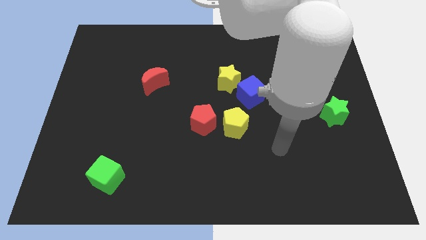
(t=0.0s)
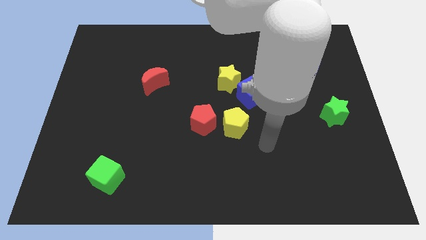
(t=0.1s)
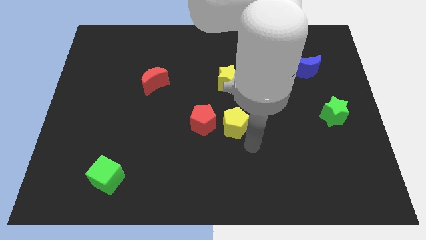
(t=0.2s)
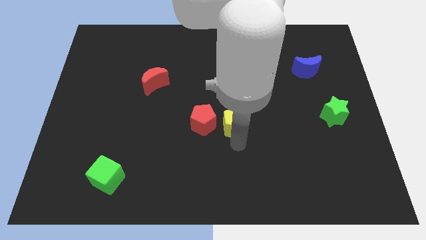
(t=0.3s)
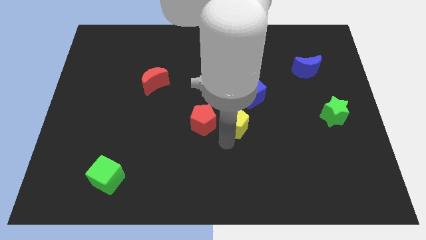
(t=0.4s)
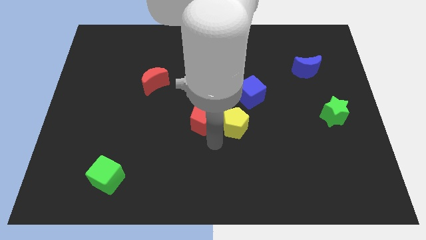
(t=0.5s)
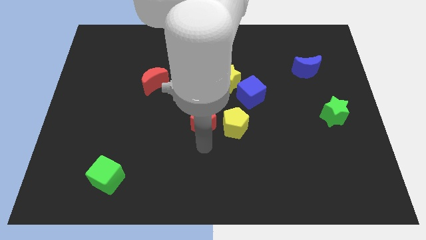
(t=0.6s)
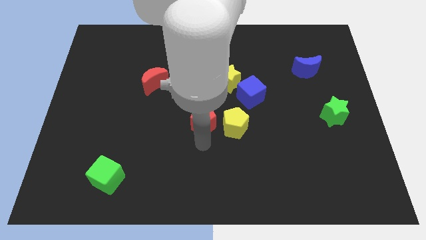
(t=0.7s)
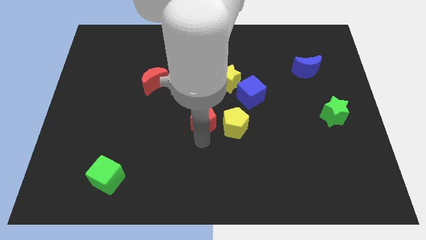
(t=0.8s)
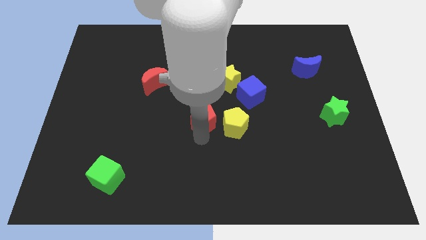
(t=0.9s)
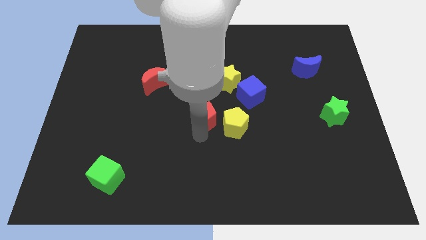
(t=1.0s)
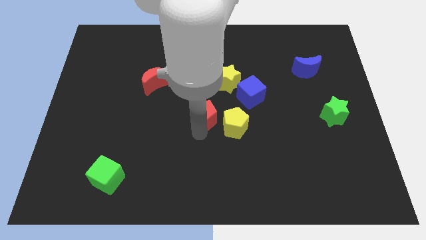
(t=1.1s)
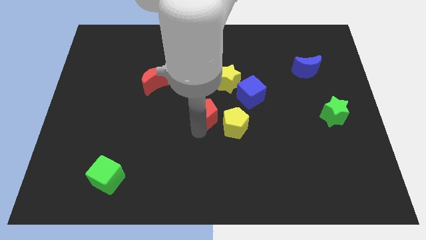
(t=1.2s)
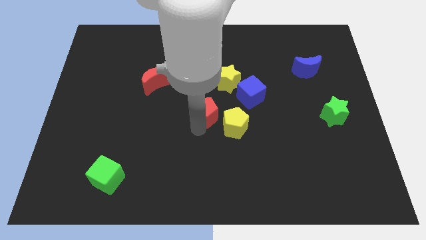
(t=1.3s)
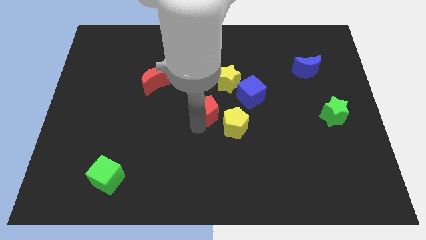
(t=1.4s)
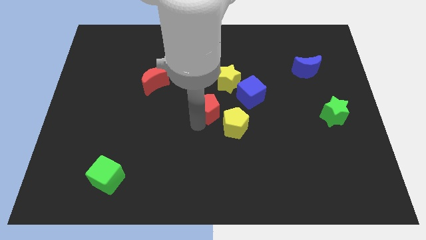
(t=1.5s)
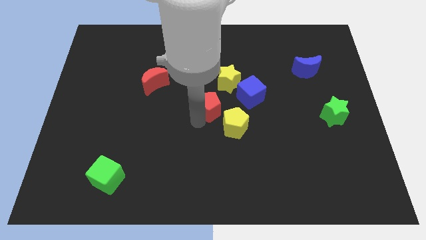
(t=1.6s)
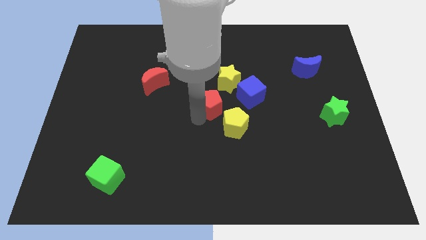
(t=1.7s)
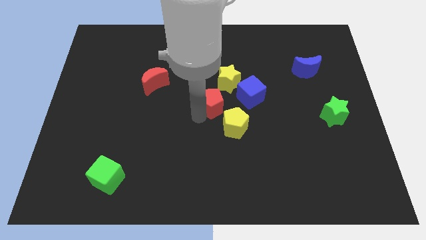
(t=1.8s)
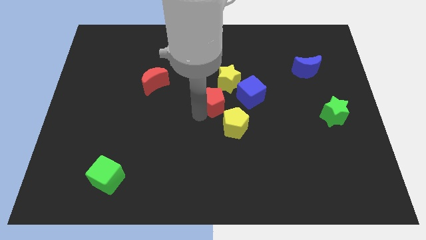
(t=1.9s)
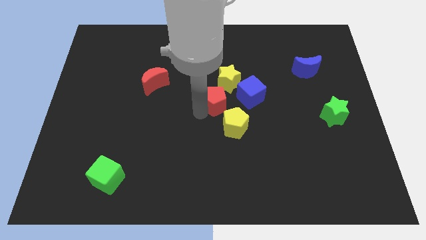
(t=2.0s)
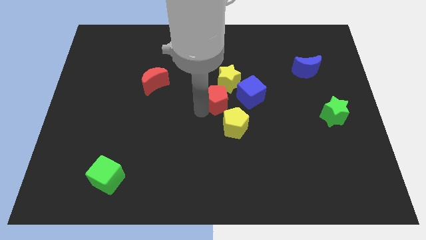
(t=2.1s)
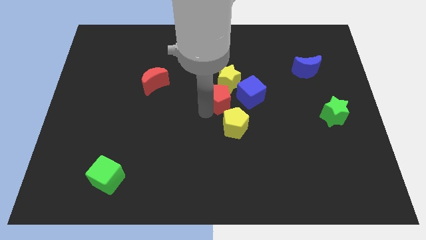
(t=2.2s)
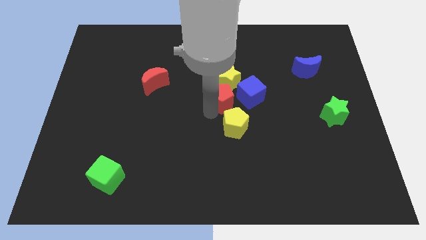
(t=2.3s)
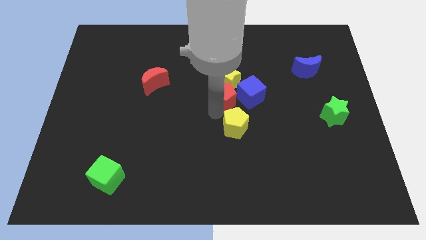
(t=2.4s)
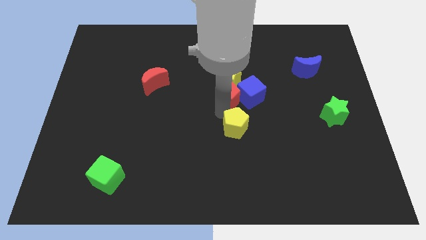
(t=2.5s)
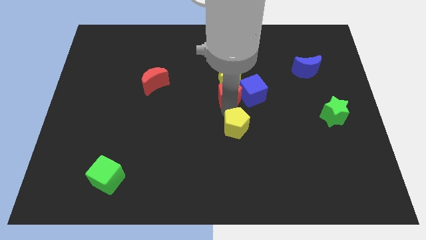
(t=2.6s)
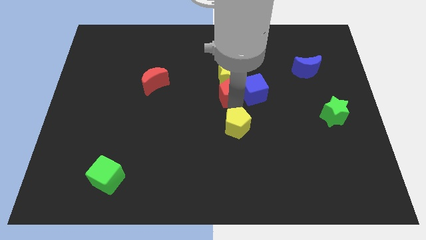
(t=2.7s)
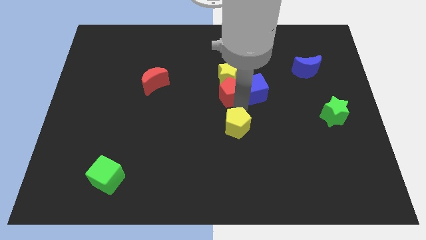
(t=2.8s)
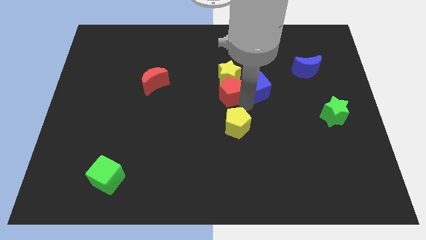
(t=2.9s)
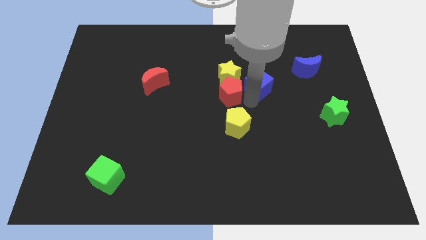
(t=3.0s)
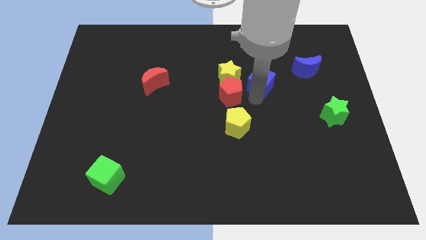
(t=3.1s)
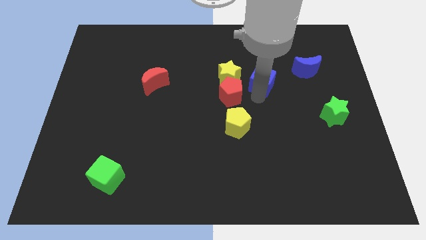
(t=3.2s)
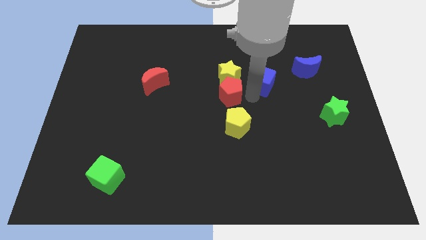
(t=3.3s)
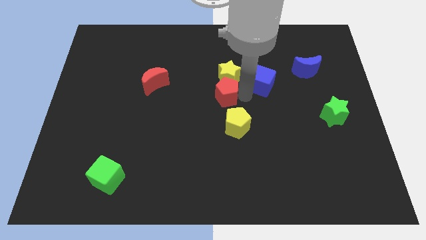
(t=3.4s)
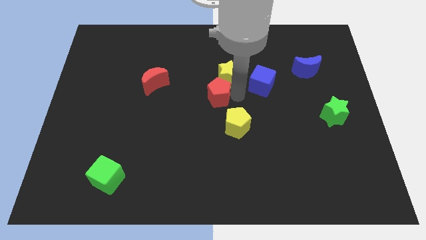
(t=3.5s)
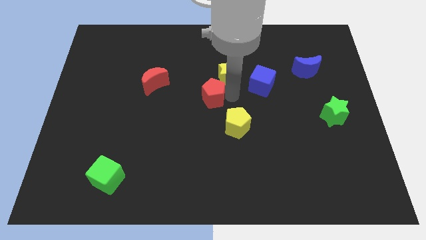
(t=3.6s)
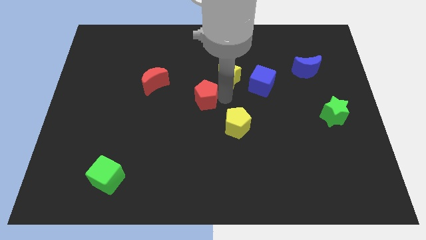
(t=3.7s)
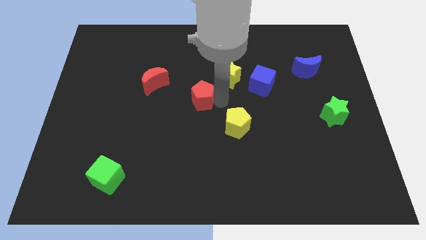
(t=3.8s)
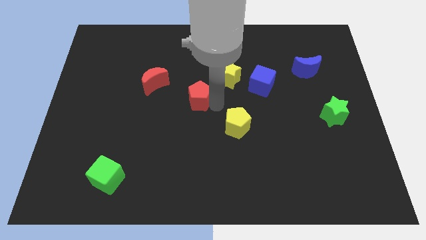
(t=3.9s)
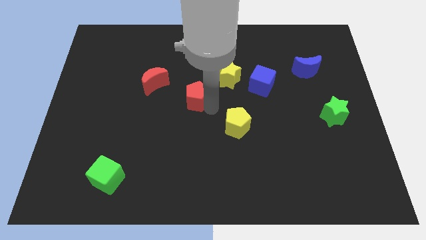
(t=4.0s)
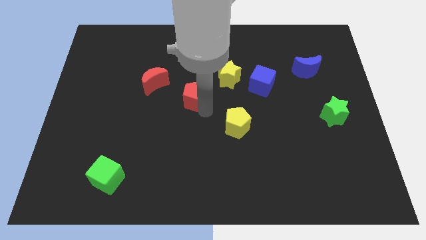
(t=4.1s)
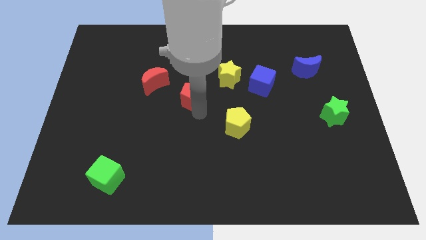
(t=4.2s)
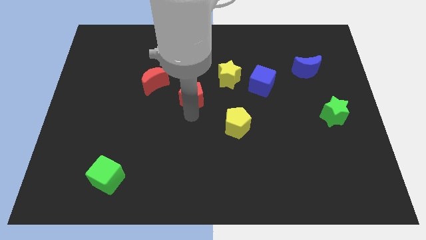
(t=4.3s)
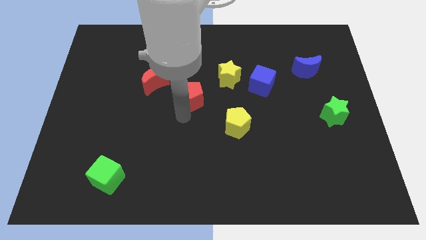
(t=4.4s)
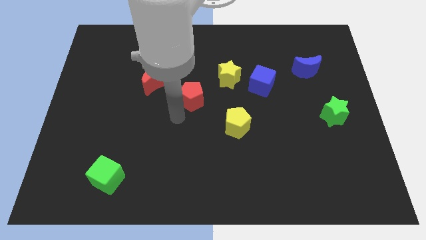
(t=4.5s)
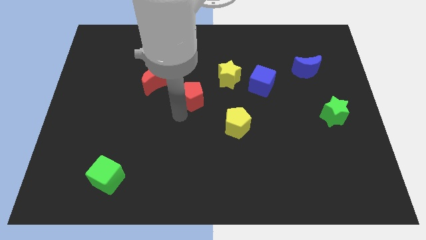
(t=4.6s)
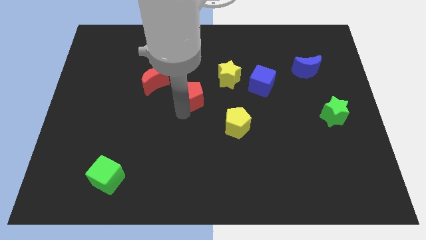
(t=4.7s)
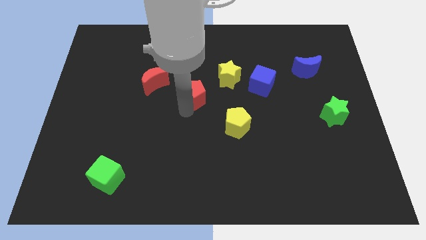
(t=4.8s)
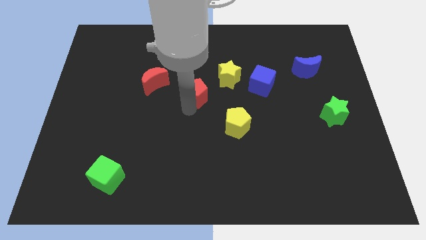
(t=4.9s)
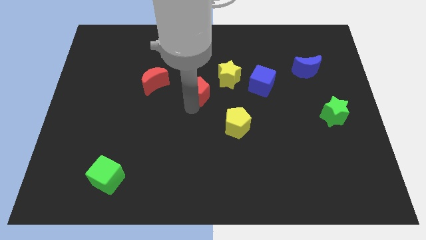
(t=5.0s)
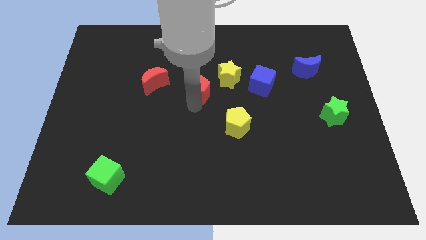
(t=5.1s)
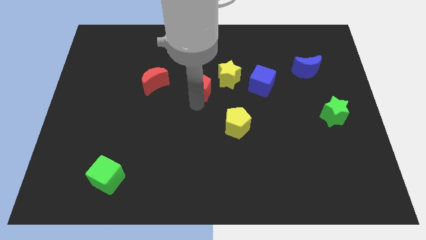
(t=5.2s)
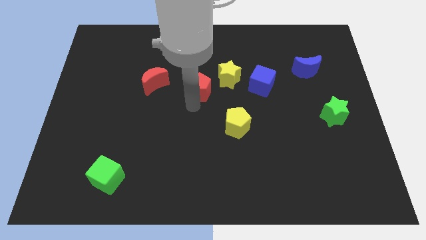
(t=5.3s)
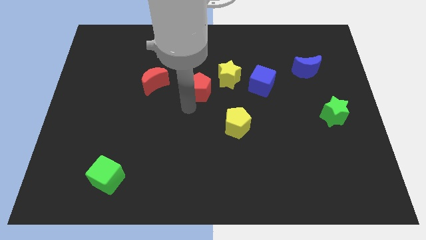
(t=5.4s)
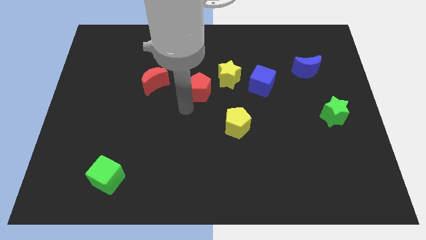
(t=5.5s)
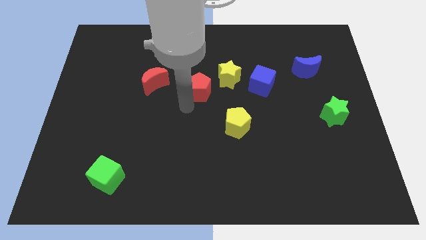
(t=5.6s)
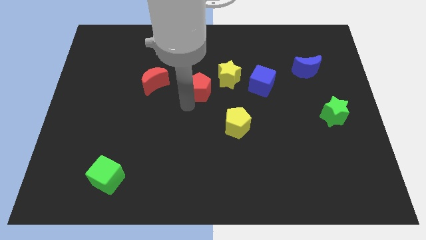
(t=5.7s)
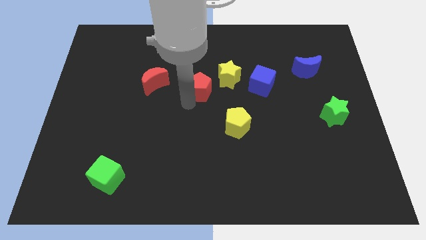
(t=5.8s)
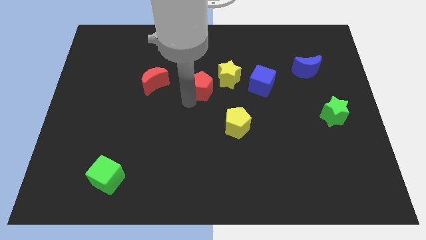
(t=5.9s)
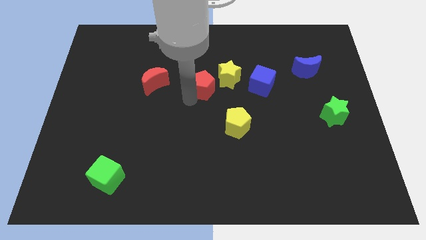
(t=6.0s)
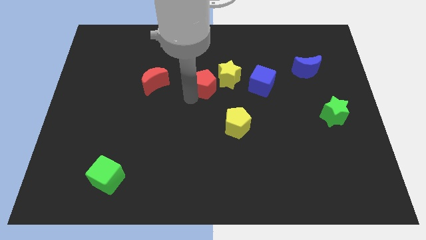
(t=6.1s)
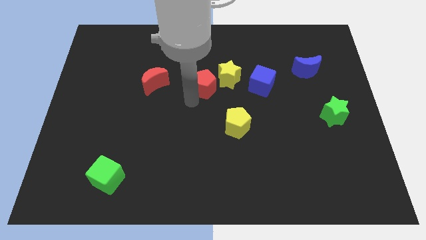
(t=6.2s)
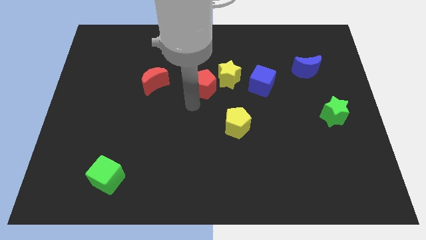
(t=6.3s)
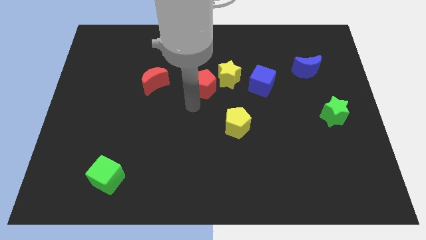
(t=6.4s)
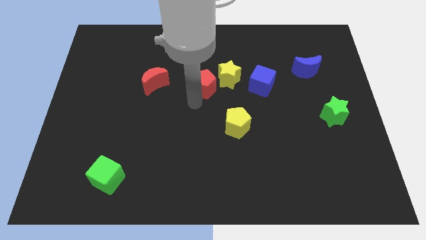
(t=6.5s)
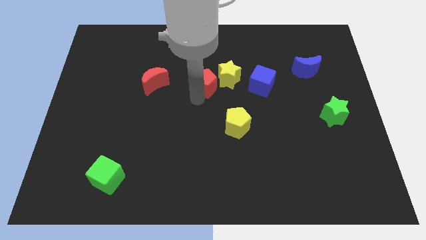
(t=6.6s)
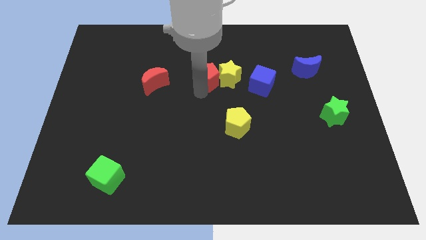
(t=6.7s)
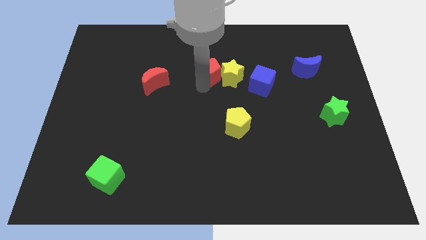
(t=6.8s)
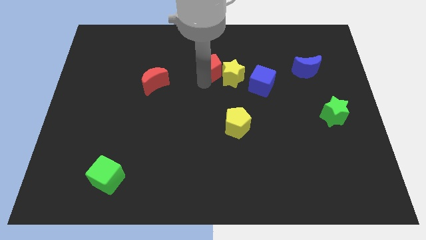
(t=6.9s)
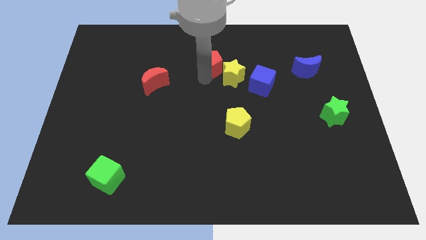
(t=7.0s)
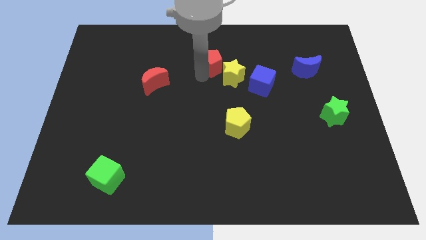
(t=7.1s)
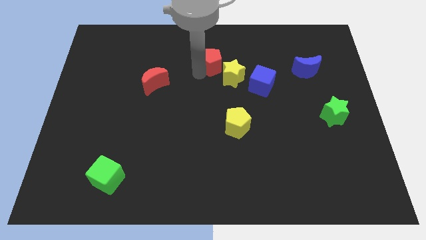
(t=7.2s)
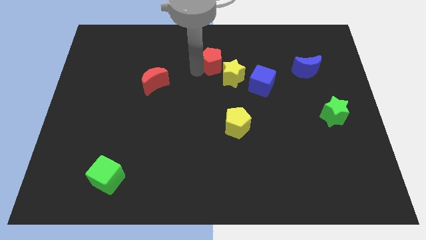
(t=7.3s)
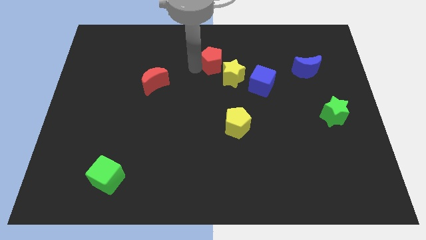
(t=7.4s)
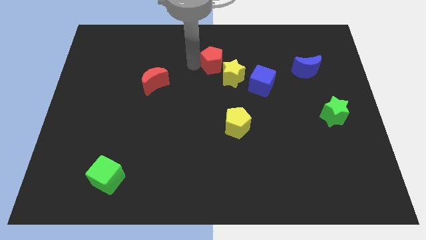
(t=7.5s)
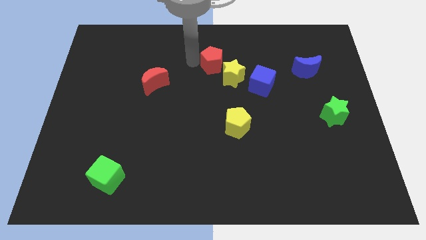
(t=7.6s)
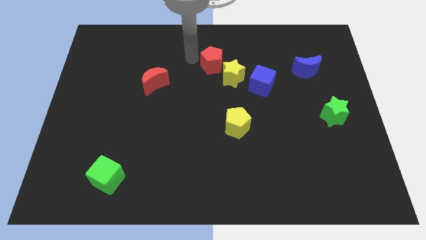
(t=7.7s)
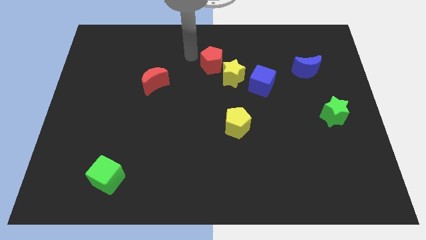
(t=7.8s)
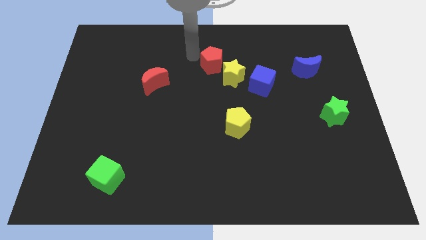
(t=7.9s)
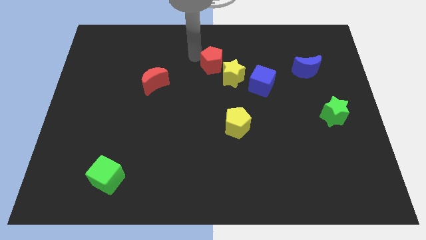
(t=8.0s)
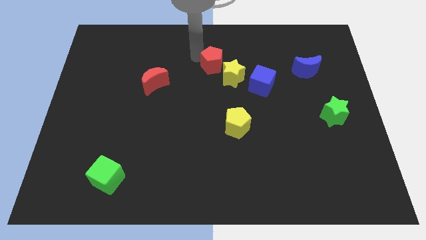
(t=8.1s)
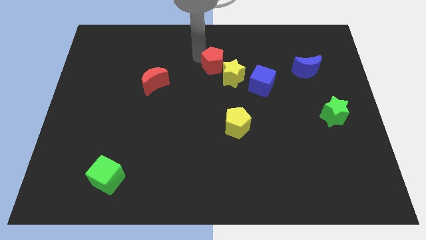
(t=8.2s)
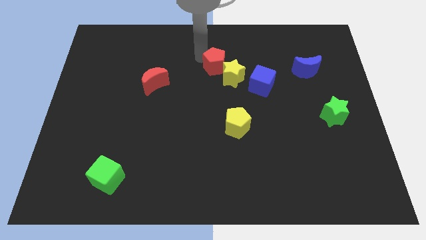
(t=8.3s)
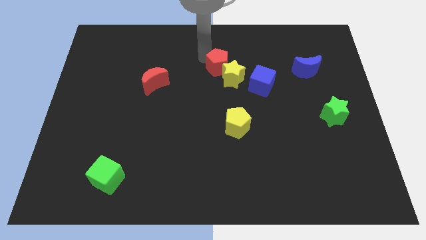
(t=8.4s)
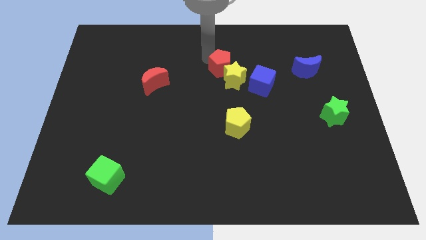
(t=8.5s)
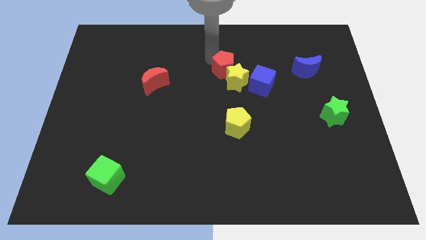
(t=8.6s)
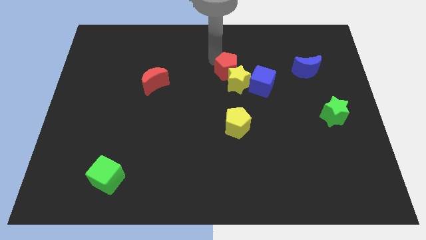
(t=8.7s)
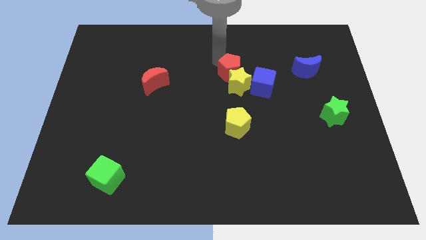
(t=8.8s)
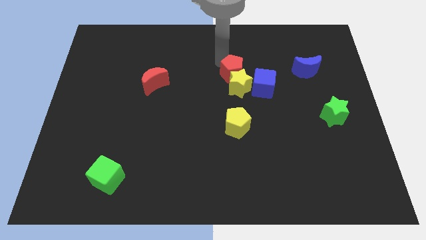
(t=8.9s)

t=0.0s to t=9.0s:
slide the red pentagon to the top right of the yellow star
